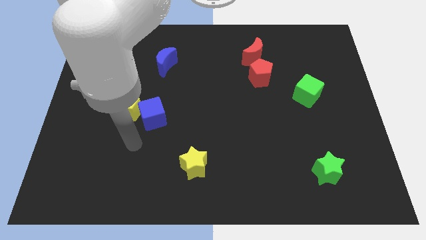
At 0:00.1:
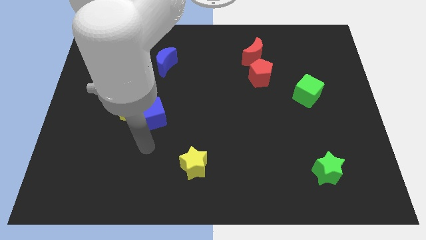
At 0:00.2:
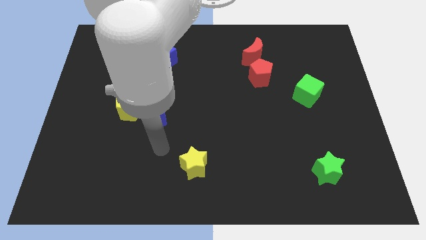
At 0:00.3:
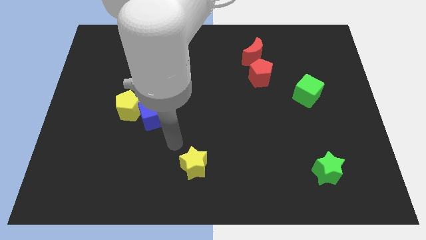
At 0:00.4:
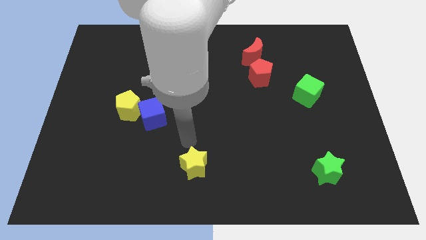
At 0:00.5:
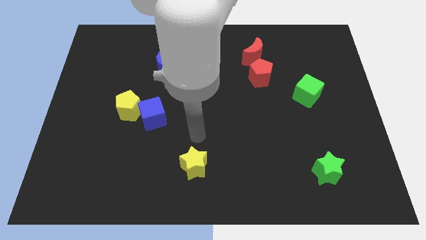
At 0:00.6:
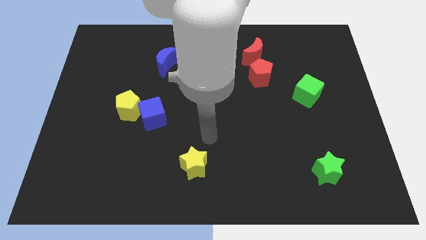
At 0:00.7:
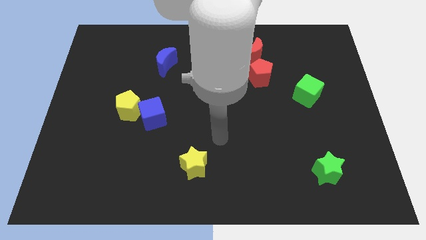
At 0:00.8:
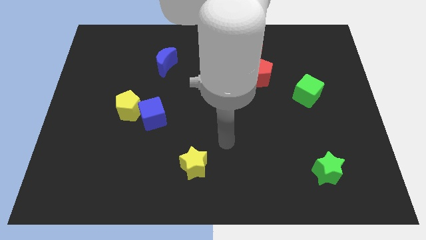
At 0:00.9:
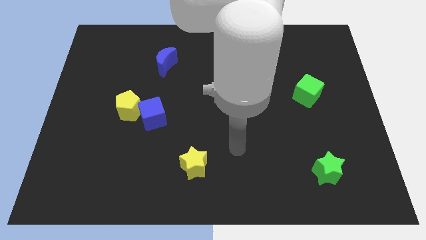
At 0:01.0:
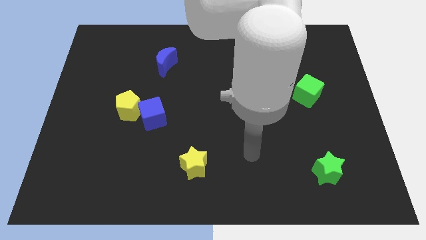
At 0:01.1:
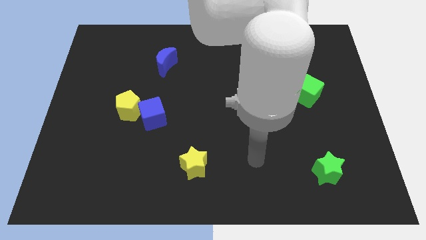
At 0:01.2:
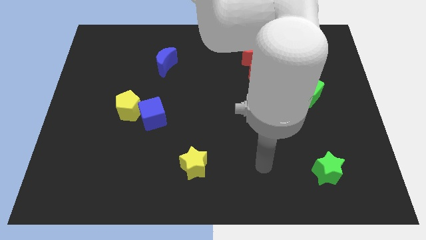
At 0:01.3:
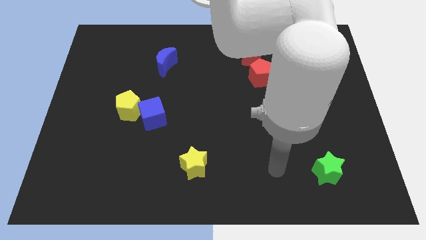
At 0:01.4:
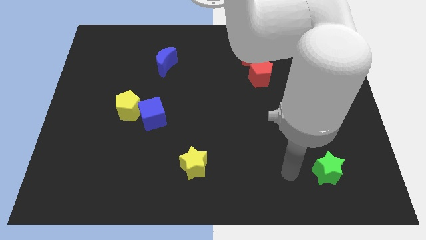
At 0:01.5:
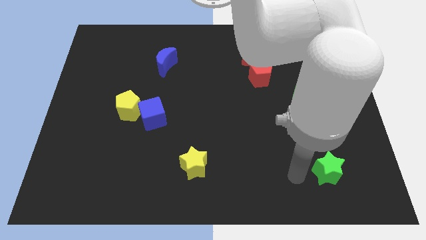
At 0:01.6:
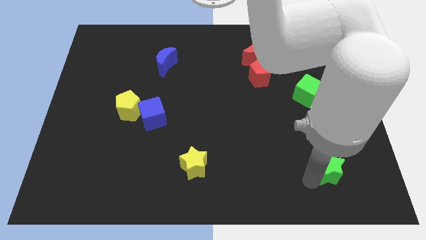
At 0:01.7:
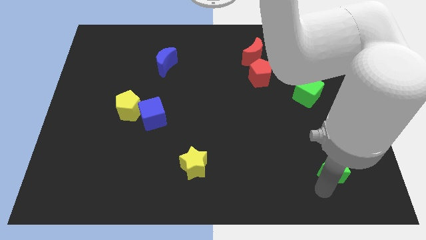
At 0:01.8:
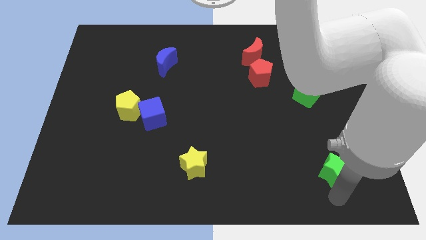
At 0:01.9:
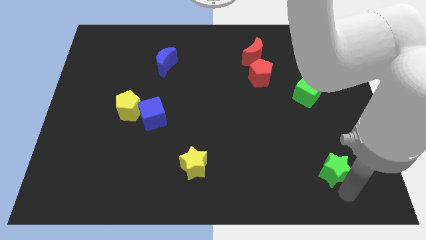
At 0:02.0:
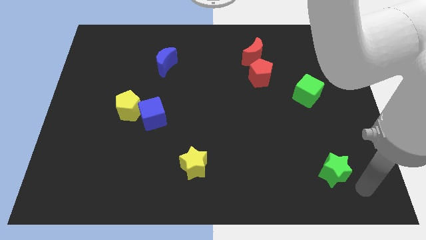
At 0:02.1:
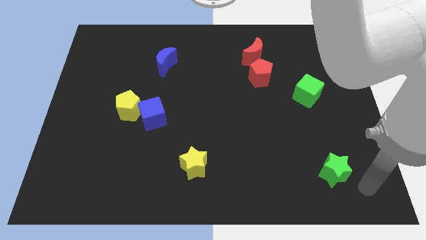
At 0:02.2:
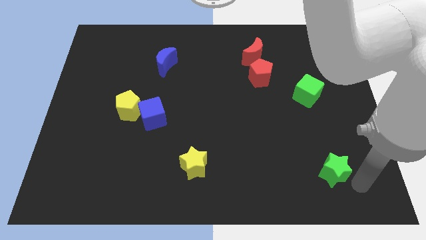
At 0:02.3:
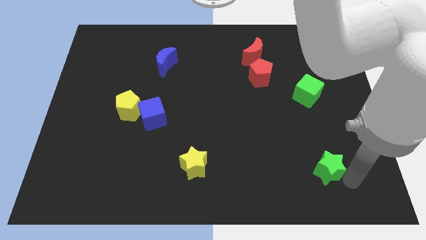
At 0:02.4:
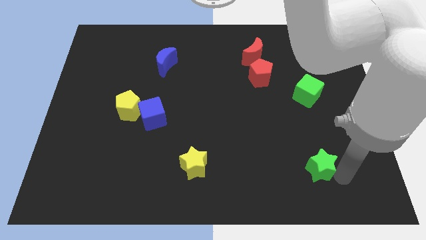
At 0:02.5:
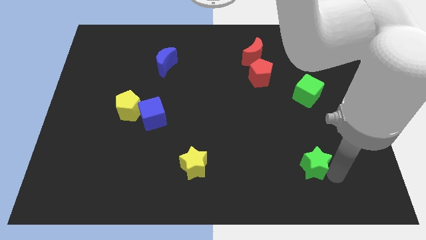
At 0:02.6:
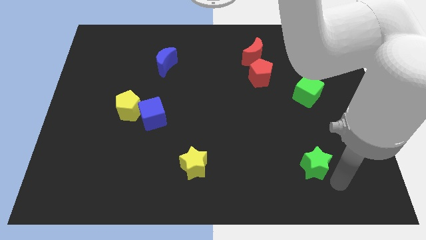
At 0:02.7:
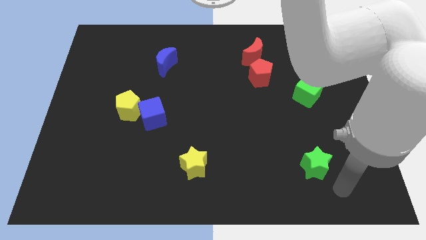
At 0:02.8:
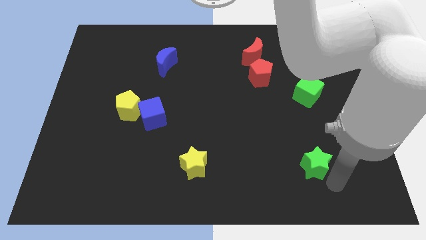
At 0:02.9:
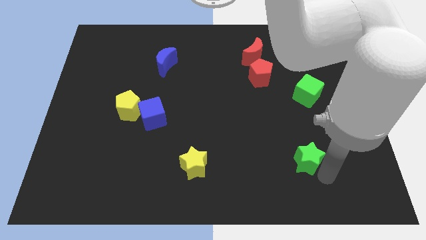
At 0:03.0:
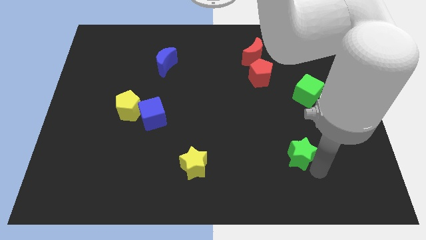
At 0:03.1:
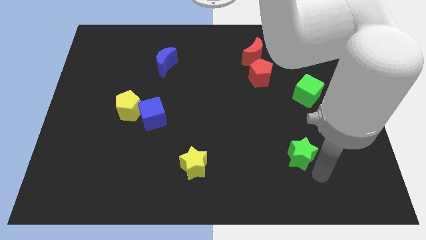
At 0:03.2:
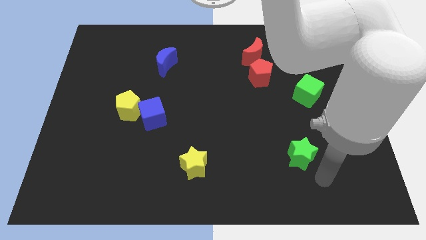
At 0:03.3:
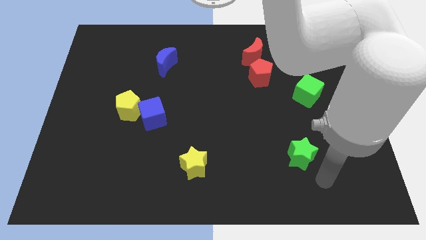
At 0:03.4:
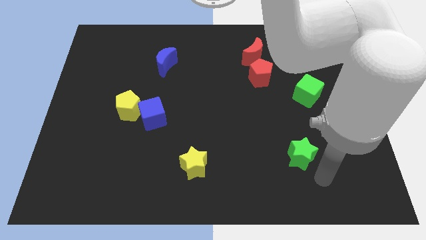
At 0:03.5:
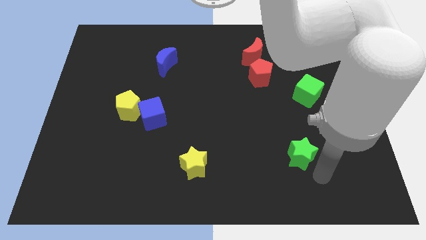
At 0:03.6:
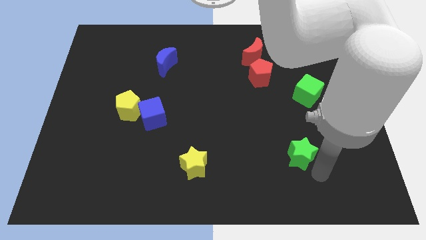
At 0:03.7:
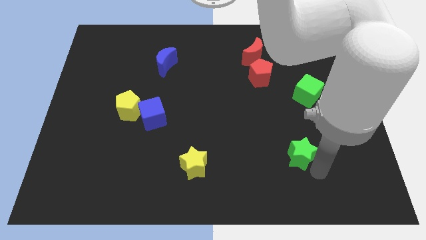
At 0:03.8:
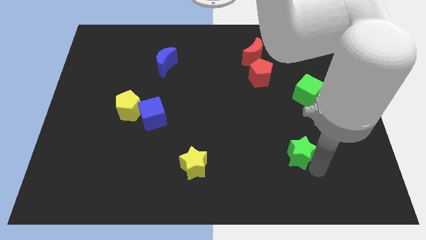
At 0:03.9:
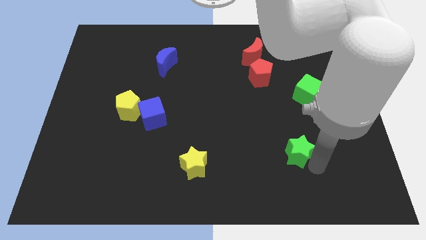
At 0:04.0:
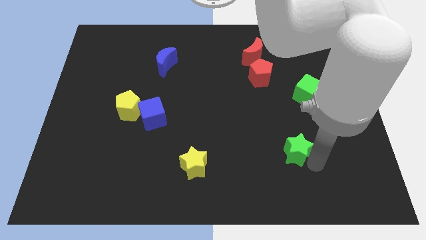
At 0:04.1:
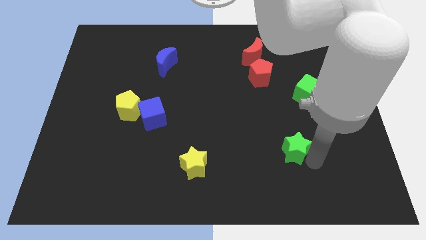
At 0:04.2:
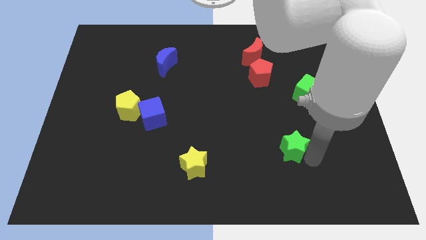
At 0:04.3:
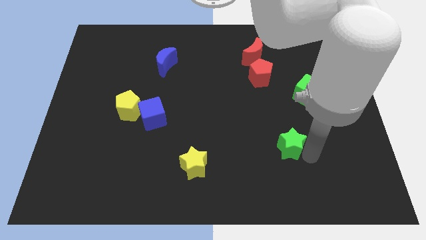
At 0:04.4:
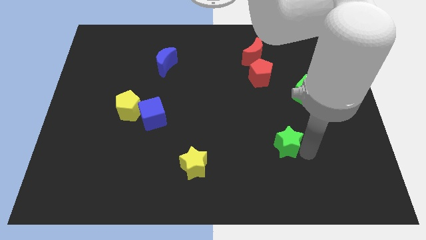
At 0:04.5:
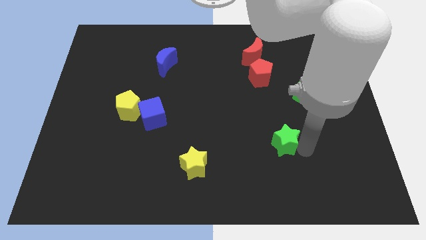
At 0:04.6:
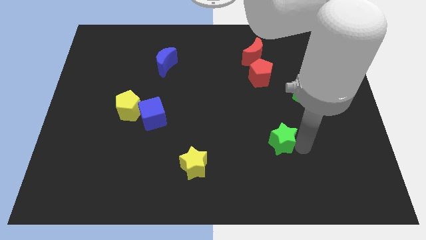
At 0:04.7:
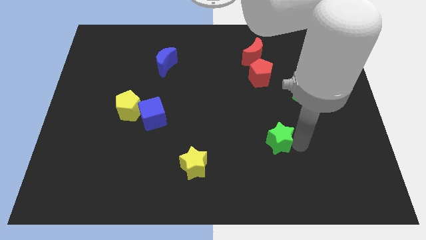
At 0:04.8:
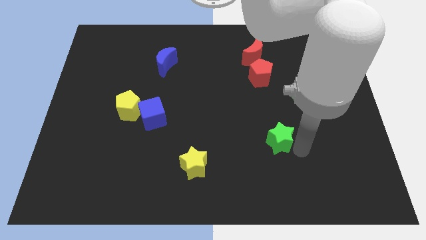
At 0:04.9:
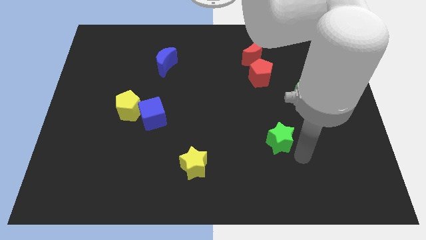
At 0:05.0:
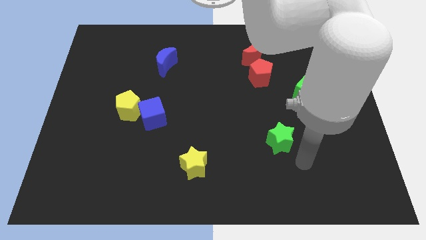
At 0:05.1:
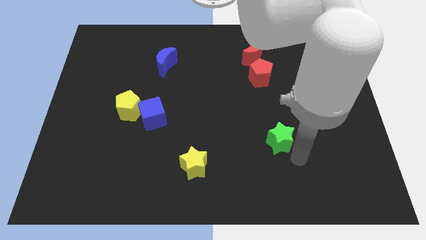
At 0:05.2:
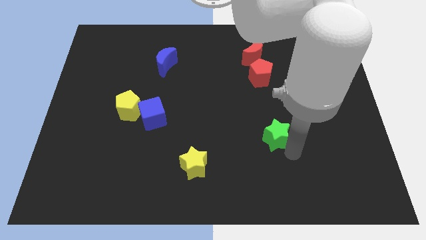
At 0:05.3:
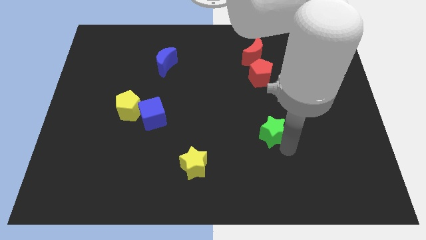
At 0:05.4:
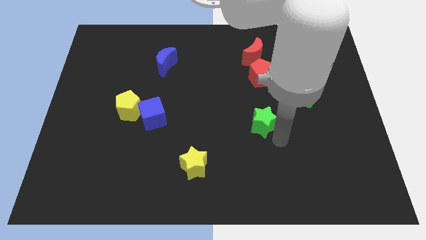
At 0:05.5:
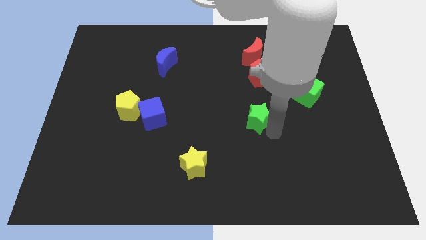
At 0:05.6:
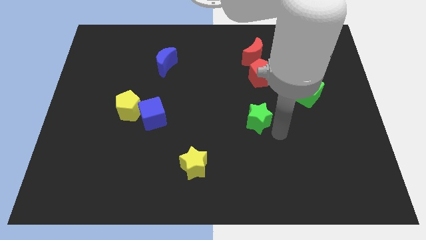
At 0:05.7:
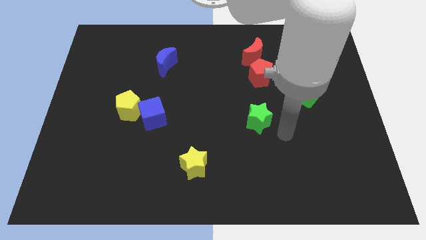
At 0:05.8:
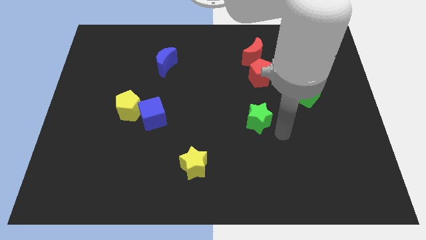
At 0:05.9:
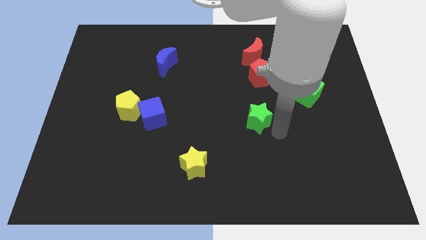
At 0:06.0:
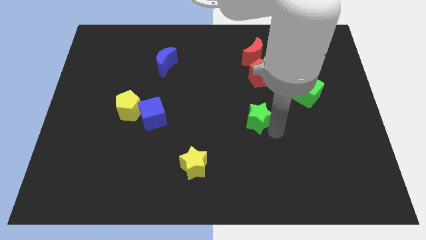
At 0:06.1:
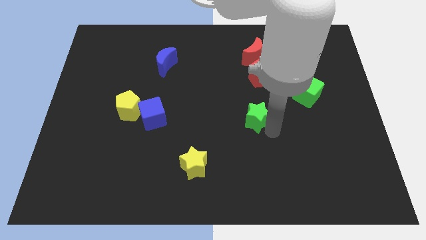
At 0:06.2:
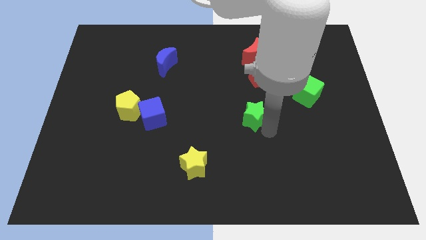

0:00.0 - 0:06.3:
push the green star upwards and then left

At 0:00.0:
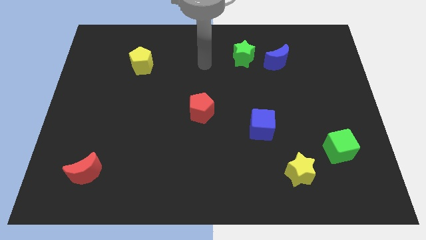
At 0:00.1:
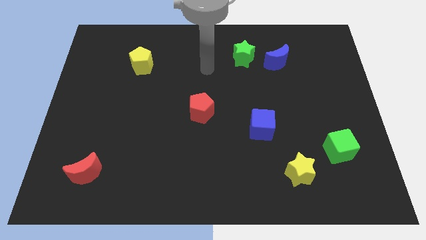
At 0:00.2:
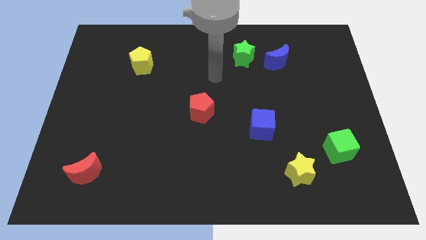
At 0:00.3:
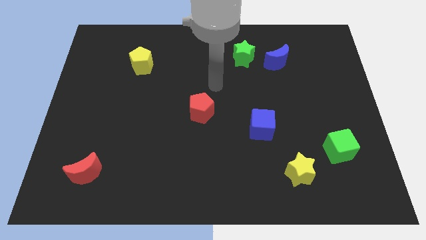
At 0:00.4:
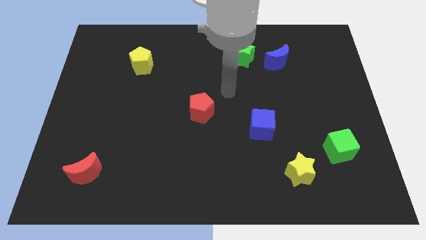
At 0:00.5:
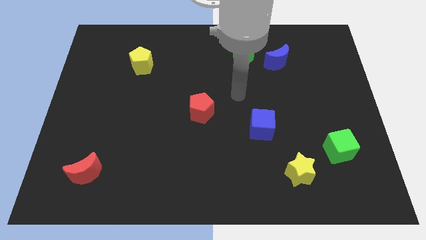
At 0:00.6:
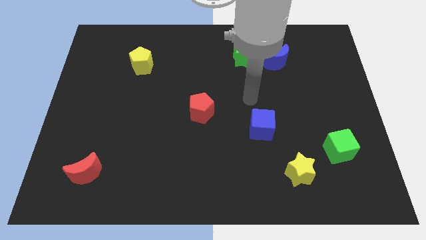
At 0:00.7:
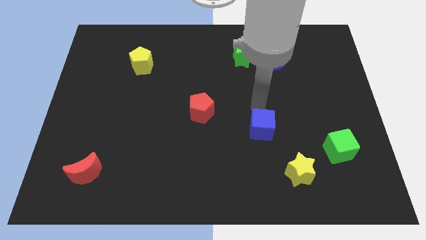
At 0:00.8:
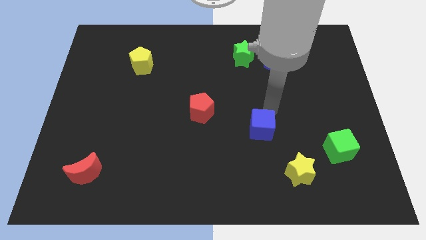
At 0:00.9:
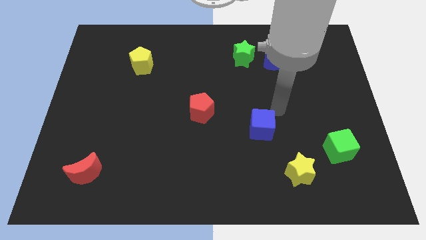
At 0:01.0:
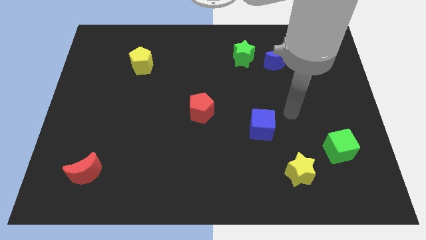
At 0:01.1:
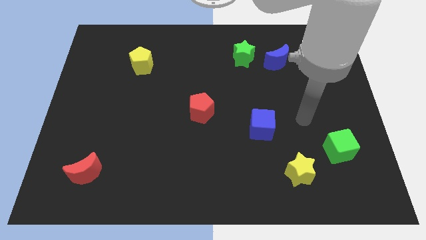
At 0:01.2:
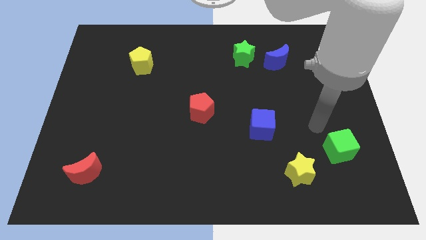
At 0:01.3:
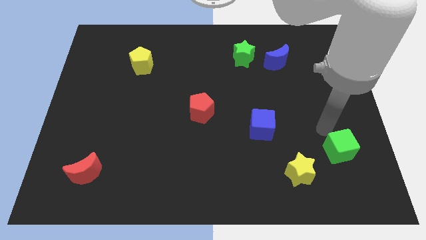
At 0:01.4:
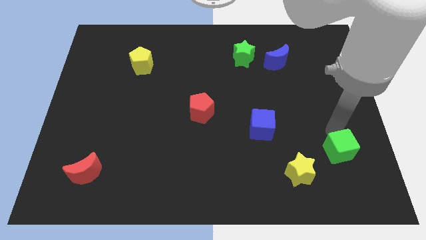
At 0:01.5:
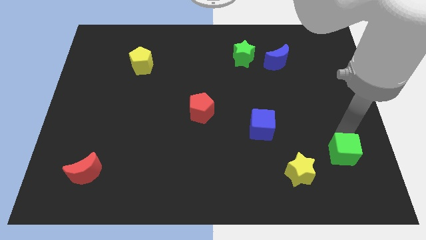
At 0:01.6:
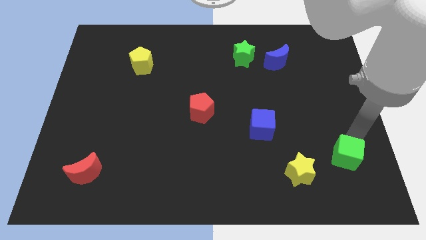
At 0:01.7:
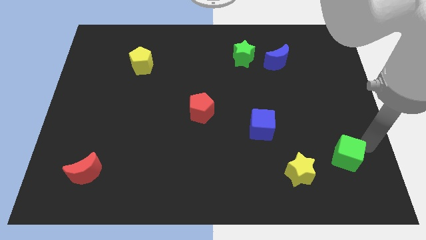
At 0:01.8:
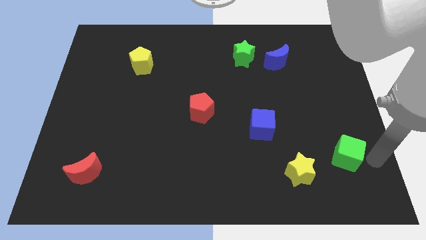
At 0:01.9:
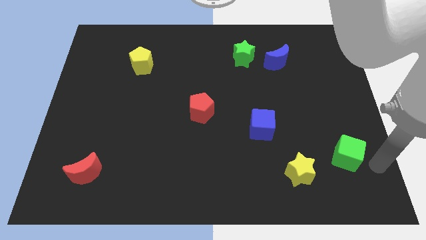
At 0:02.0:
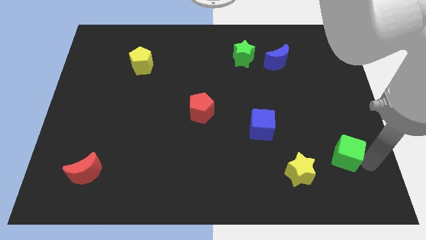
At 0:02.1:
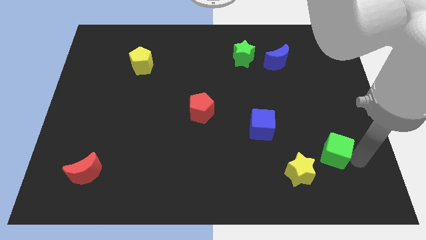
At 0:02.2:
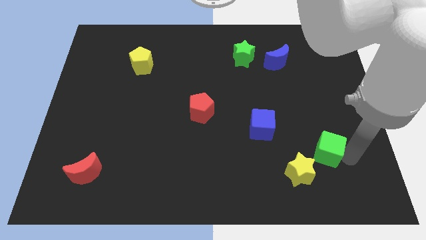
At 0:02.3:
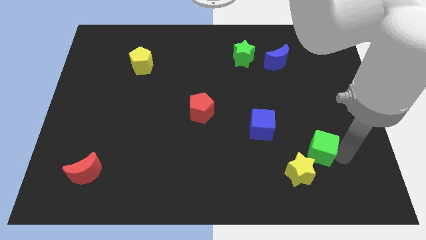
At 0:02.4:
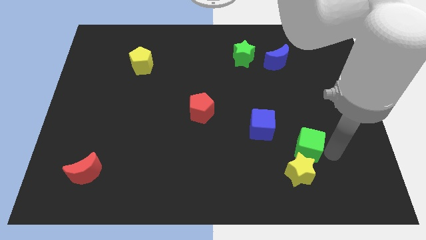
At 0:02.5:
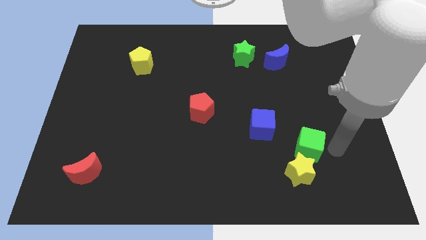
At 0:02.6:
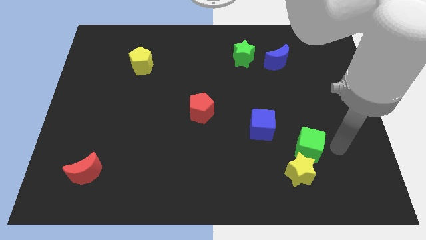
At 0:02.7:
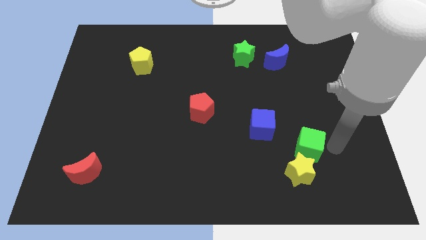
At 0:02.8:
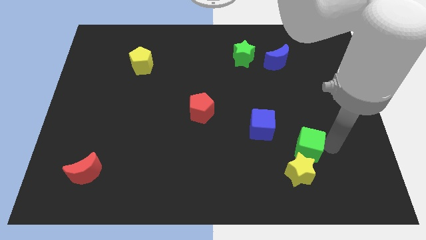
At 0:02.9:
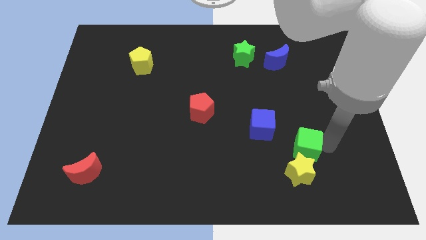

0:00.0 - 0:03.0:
slightly slide the green cube left
